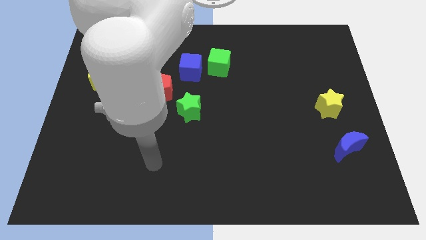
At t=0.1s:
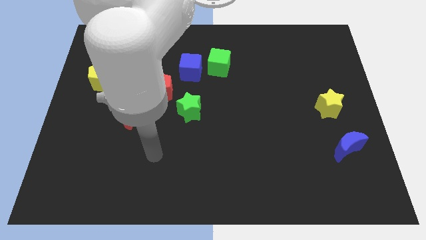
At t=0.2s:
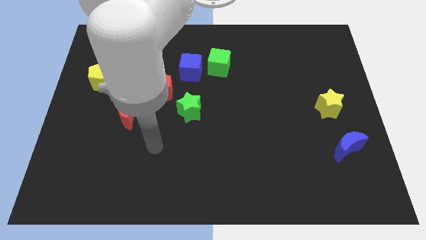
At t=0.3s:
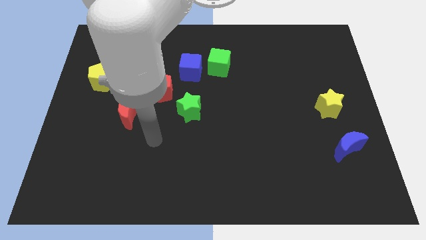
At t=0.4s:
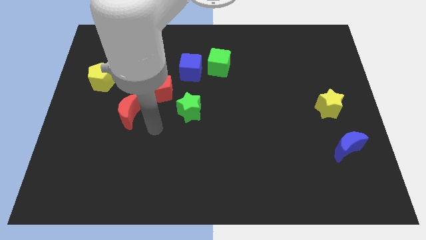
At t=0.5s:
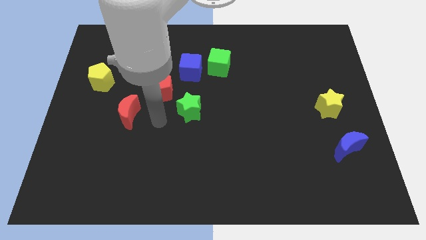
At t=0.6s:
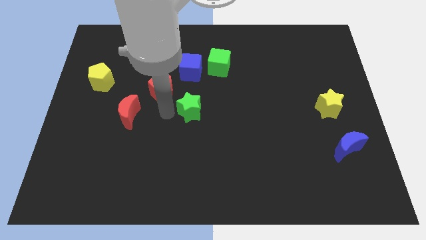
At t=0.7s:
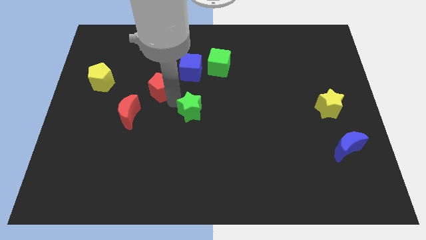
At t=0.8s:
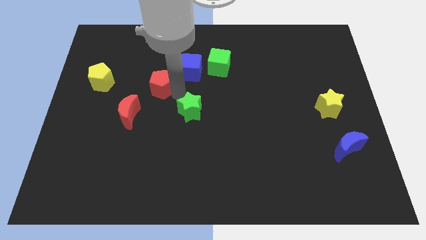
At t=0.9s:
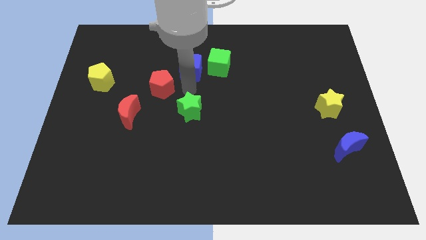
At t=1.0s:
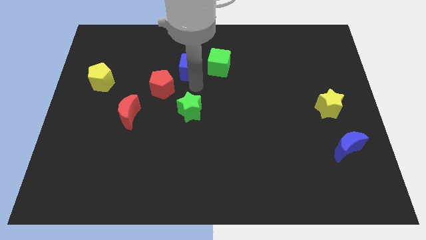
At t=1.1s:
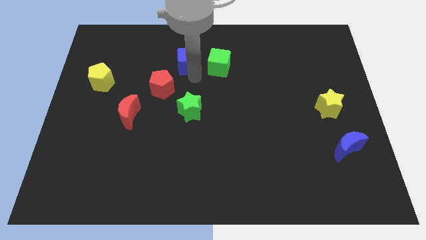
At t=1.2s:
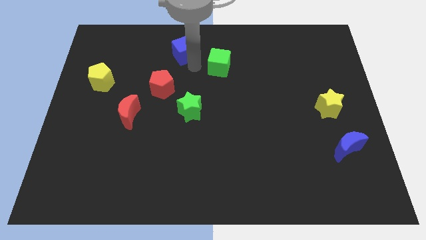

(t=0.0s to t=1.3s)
separate the green cube from the blue cube

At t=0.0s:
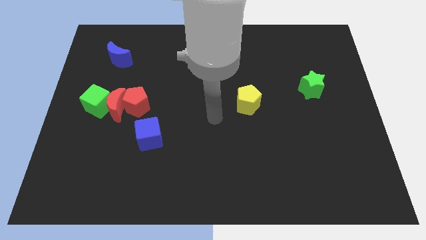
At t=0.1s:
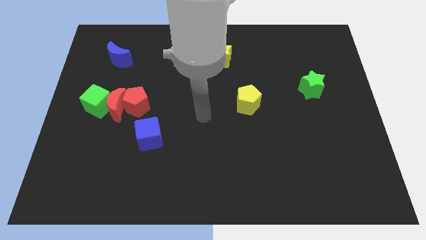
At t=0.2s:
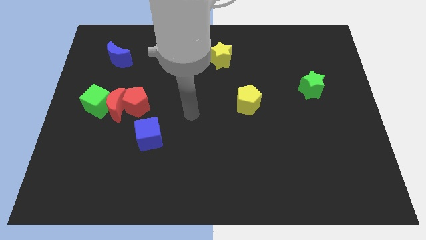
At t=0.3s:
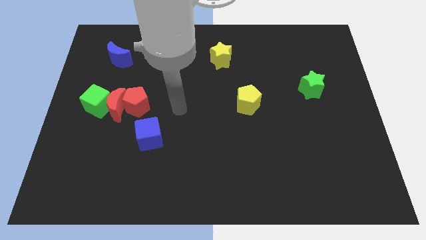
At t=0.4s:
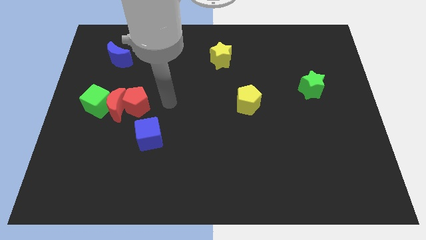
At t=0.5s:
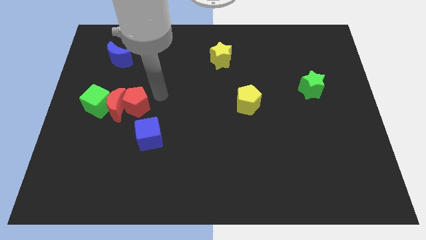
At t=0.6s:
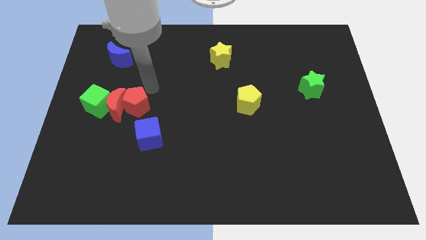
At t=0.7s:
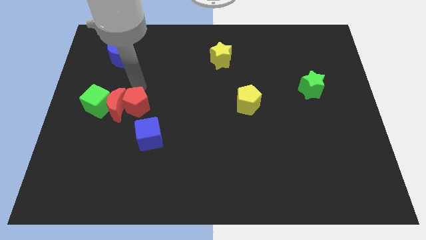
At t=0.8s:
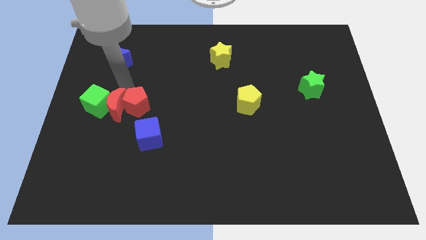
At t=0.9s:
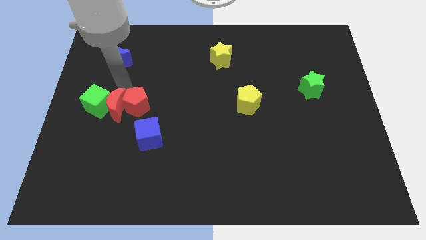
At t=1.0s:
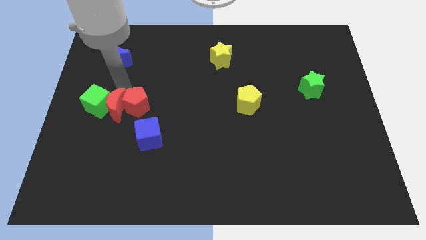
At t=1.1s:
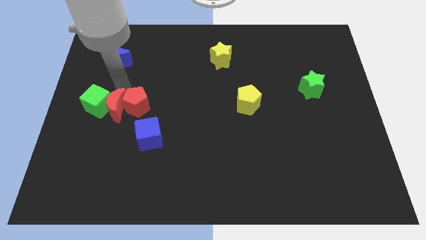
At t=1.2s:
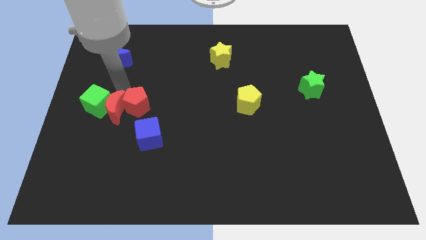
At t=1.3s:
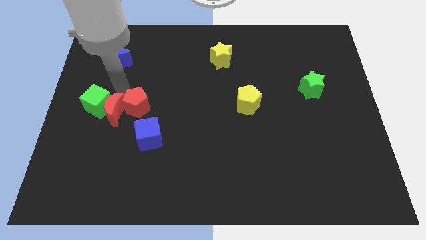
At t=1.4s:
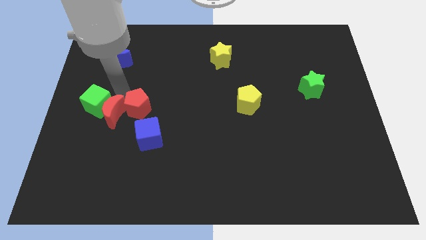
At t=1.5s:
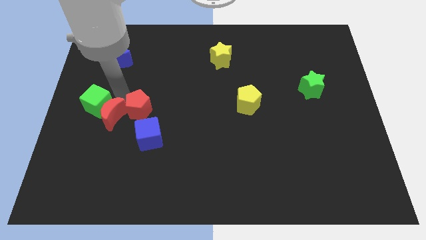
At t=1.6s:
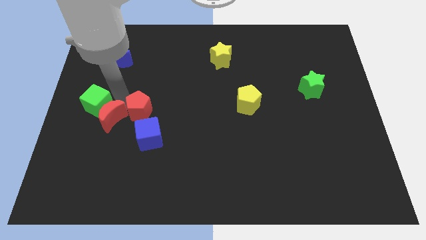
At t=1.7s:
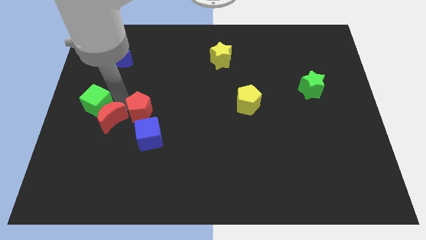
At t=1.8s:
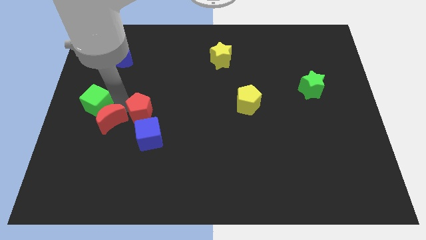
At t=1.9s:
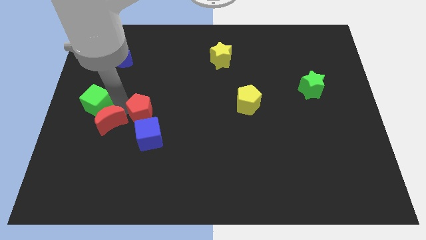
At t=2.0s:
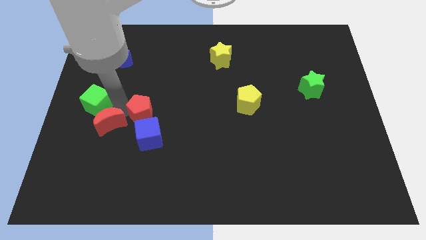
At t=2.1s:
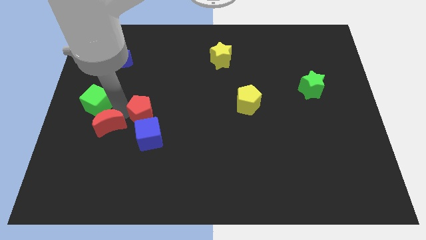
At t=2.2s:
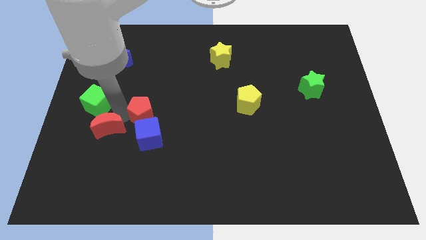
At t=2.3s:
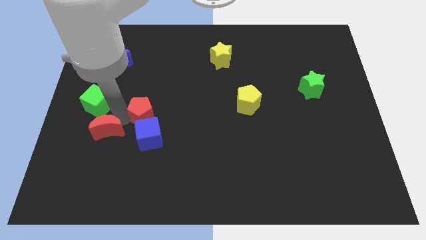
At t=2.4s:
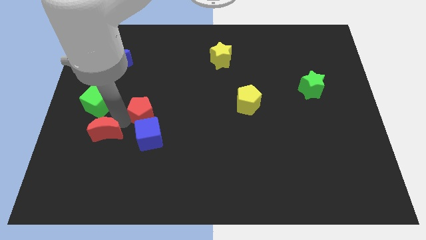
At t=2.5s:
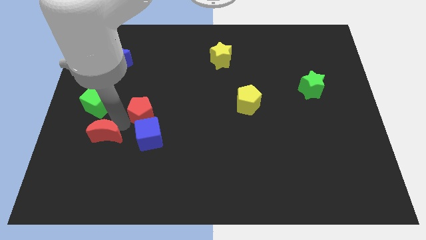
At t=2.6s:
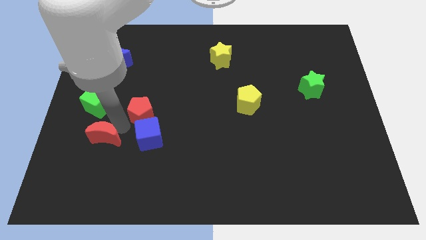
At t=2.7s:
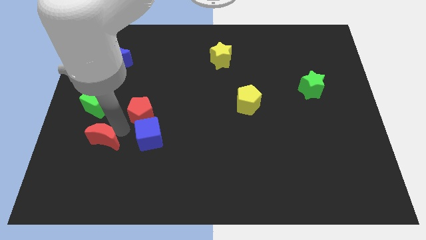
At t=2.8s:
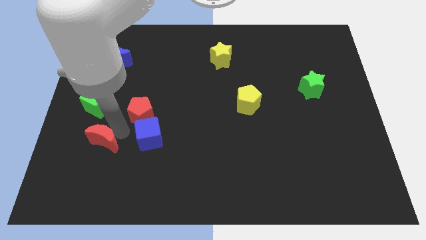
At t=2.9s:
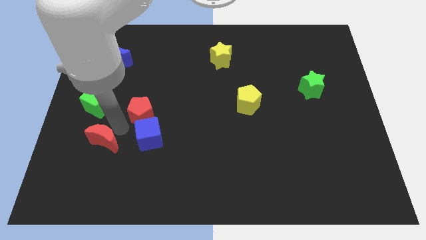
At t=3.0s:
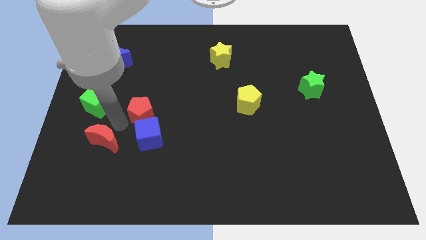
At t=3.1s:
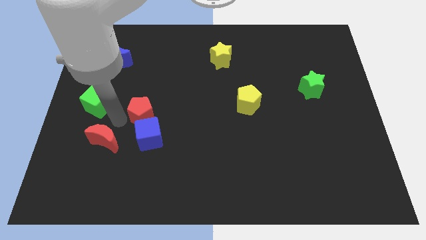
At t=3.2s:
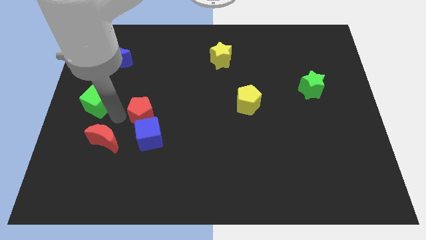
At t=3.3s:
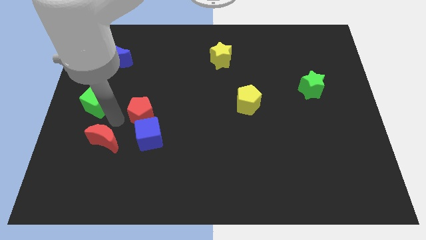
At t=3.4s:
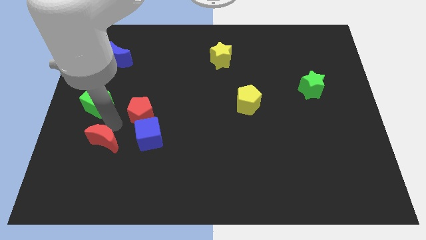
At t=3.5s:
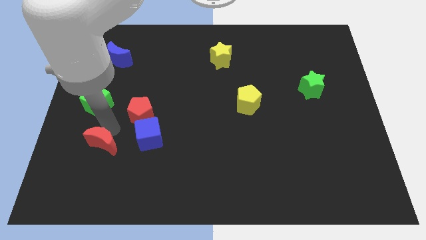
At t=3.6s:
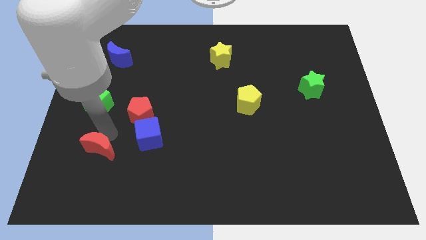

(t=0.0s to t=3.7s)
separate the red moon from the green cube and red pentagon

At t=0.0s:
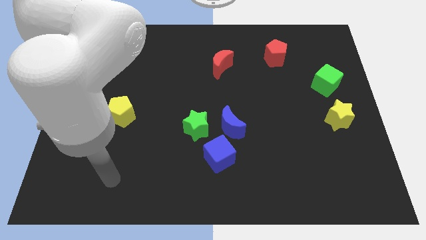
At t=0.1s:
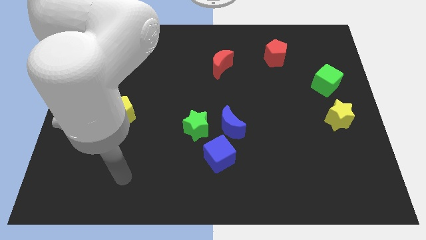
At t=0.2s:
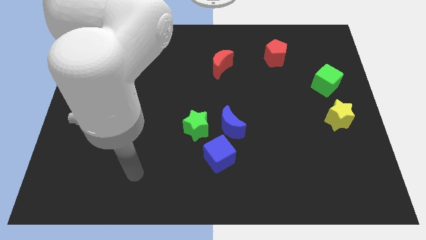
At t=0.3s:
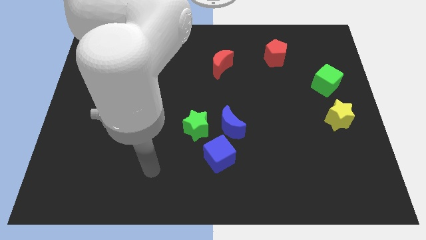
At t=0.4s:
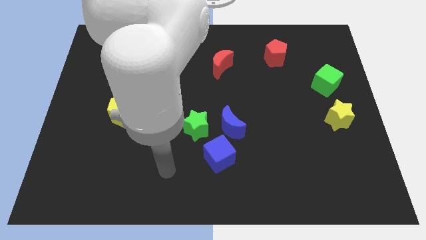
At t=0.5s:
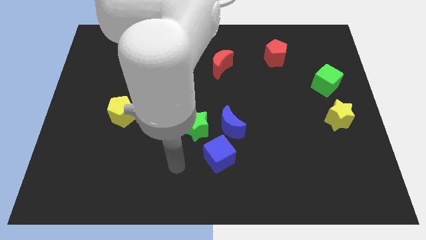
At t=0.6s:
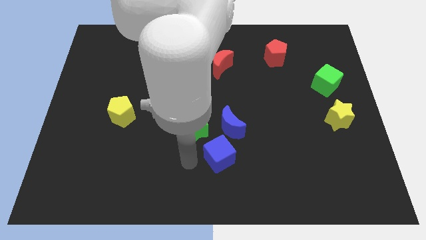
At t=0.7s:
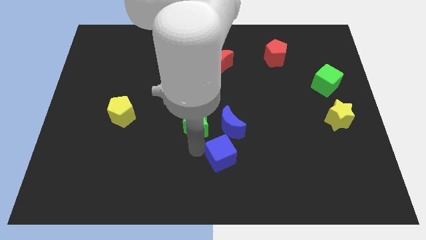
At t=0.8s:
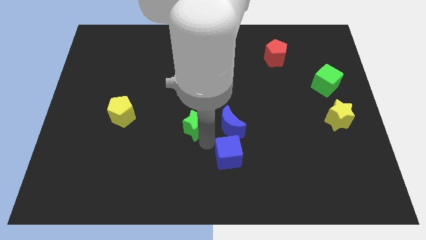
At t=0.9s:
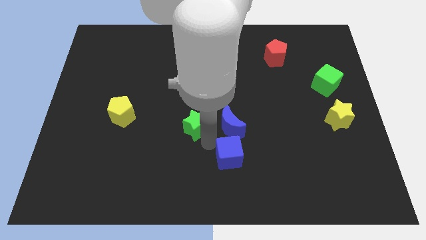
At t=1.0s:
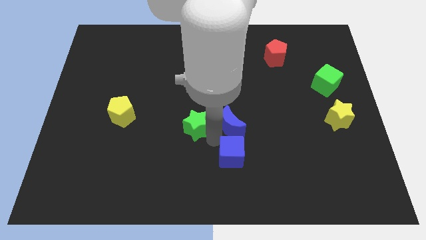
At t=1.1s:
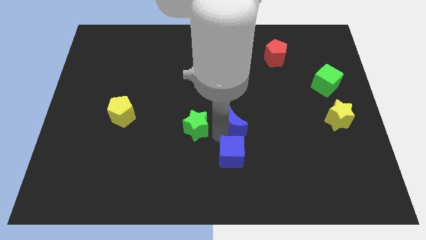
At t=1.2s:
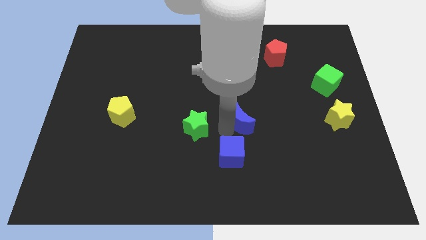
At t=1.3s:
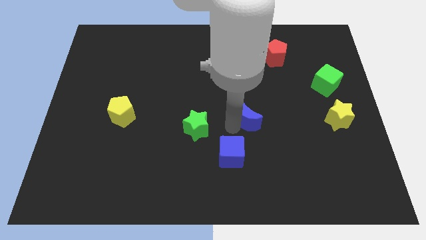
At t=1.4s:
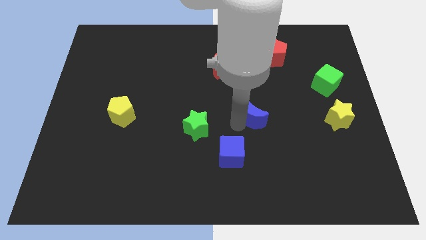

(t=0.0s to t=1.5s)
pull the blue moon apart from the green star and blue cube

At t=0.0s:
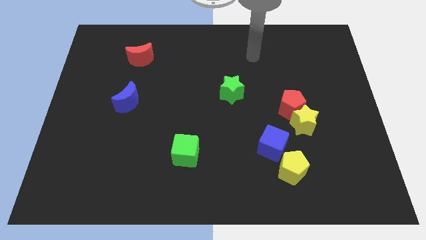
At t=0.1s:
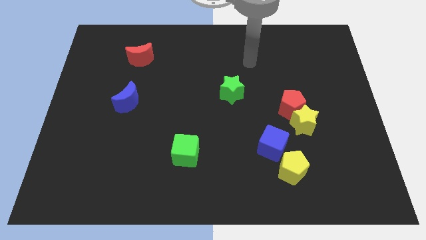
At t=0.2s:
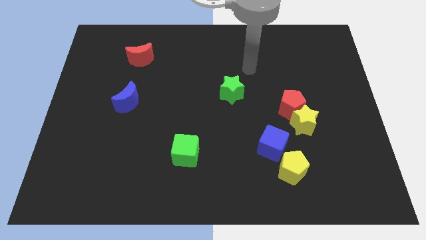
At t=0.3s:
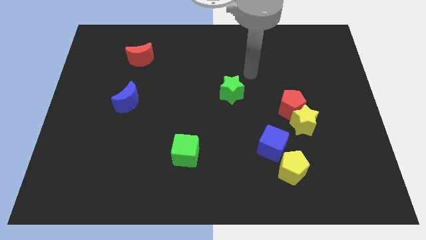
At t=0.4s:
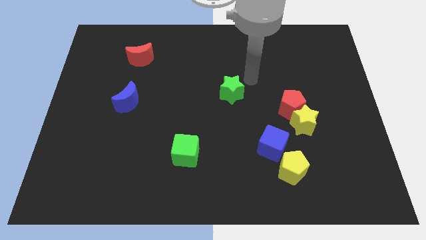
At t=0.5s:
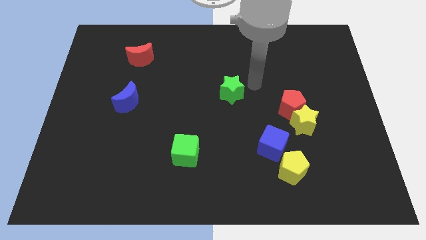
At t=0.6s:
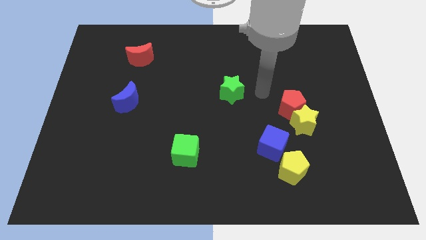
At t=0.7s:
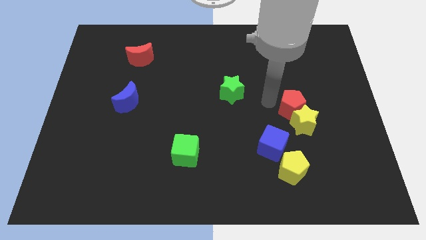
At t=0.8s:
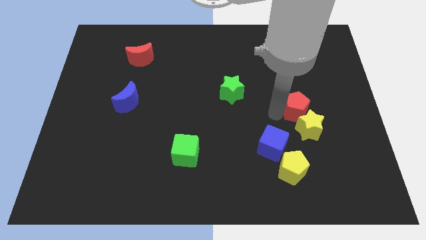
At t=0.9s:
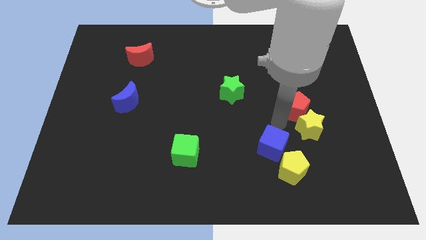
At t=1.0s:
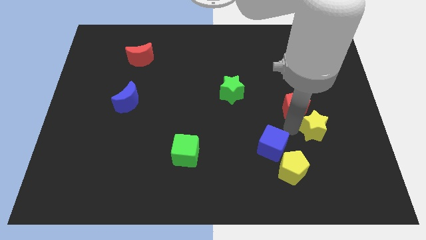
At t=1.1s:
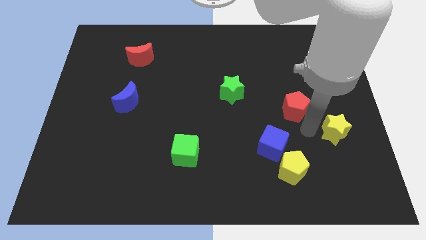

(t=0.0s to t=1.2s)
pull the red pentagon apart from the yellow star

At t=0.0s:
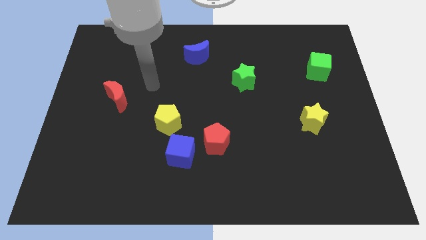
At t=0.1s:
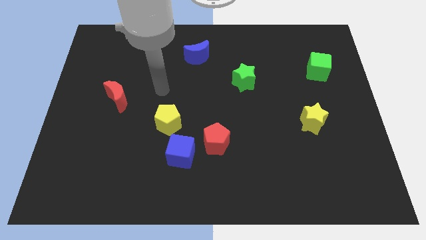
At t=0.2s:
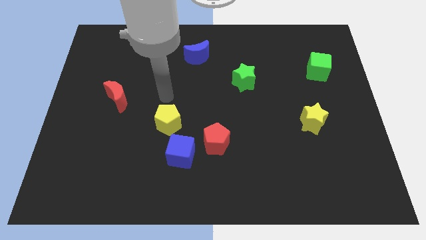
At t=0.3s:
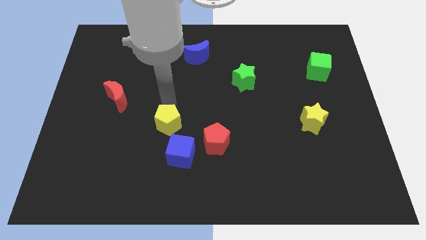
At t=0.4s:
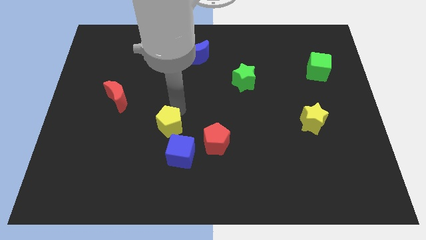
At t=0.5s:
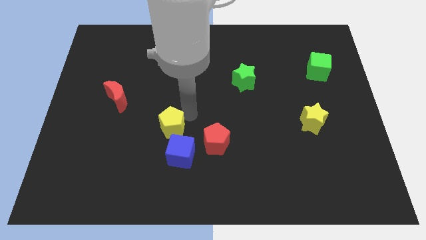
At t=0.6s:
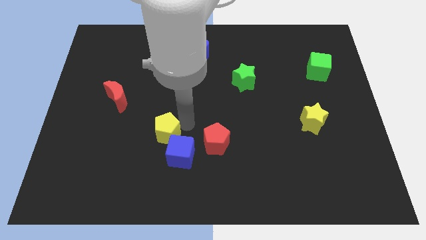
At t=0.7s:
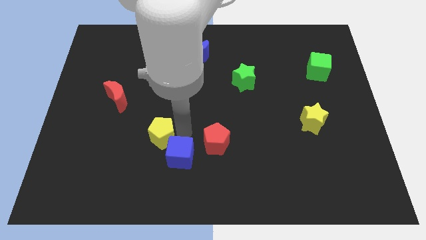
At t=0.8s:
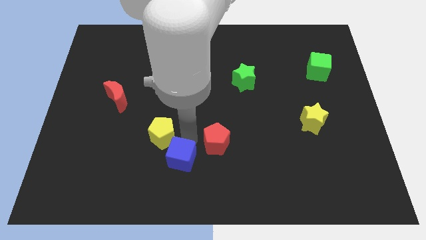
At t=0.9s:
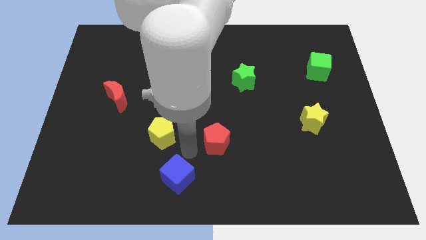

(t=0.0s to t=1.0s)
separate the red pentagon from the blue cube

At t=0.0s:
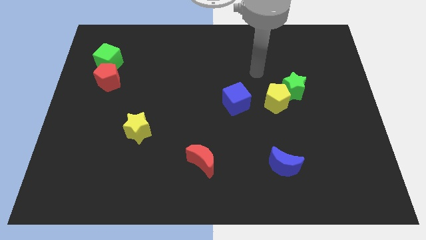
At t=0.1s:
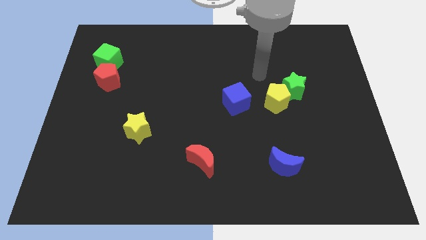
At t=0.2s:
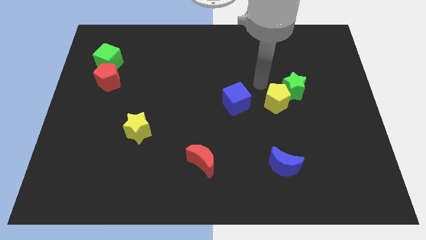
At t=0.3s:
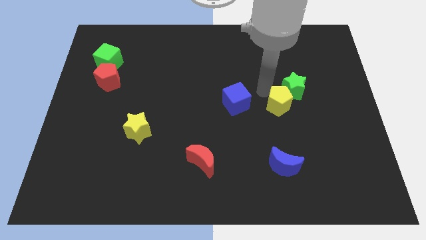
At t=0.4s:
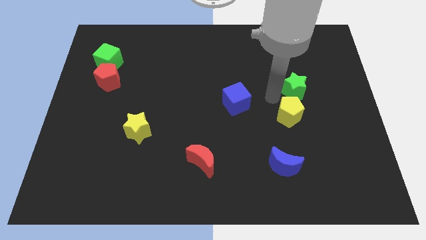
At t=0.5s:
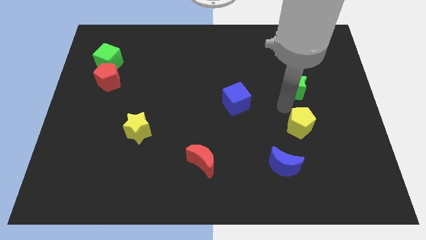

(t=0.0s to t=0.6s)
separate the green star from the yellow pentagon

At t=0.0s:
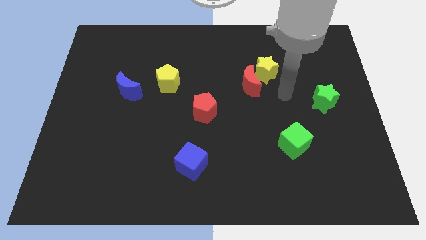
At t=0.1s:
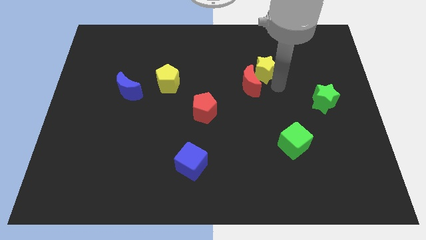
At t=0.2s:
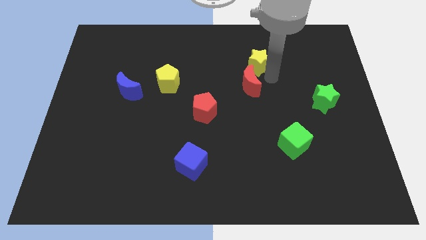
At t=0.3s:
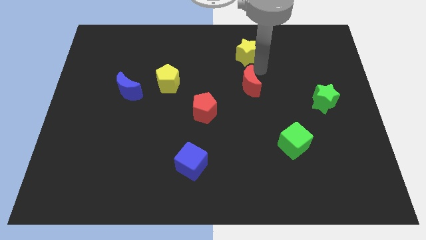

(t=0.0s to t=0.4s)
pull the red moon apart from the yellow star
